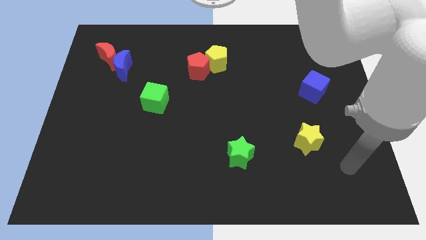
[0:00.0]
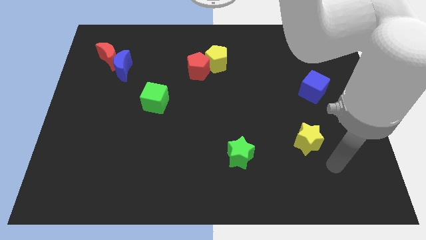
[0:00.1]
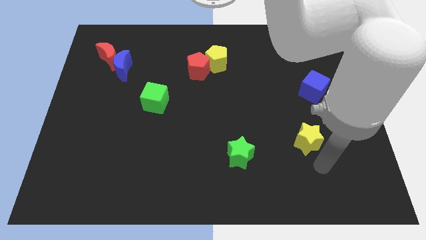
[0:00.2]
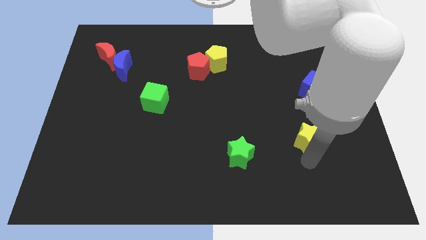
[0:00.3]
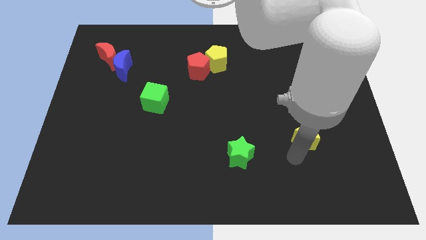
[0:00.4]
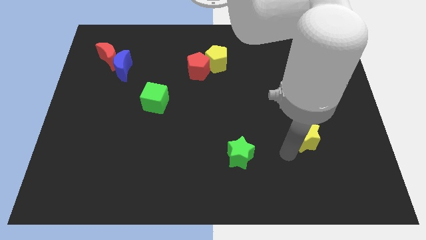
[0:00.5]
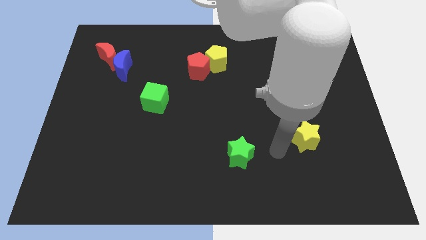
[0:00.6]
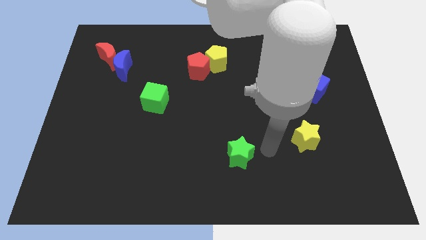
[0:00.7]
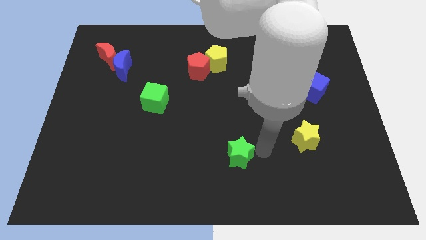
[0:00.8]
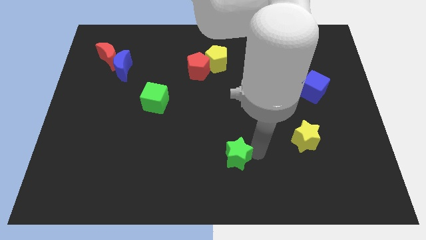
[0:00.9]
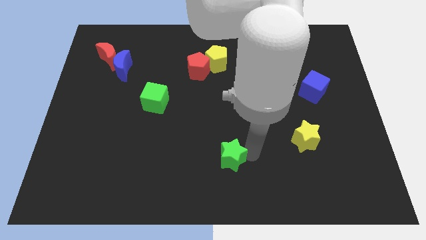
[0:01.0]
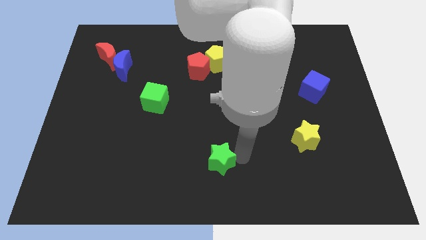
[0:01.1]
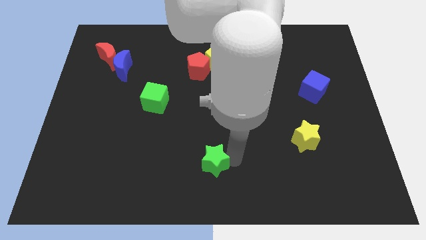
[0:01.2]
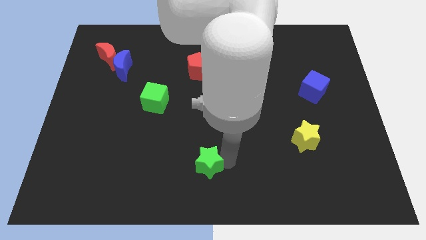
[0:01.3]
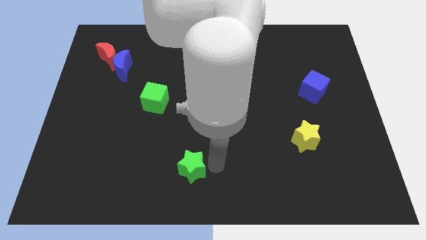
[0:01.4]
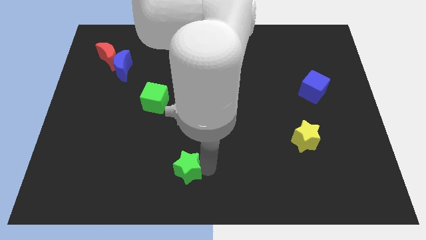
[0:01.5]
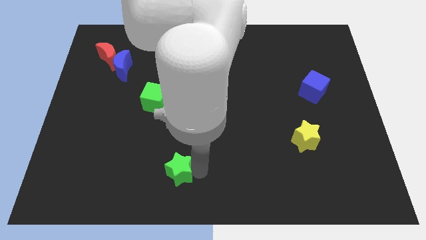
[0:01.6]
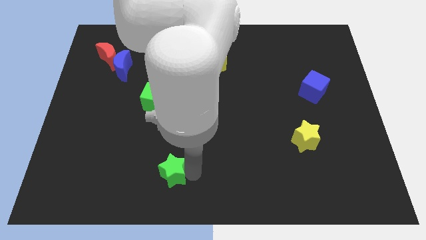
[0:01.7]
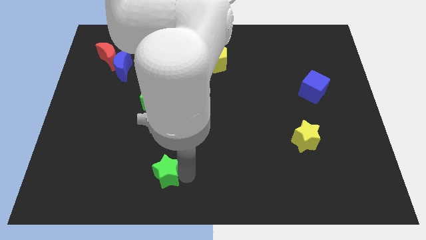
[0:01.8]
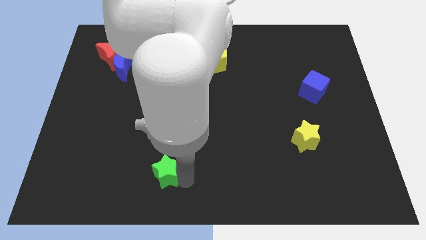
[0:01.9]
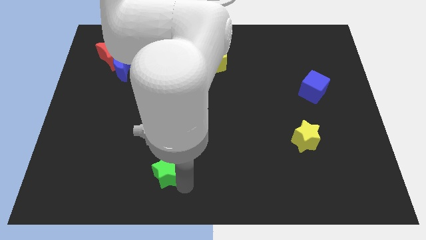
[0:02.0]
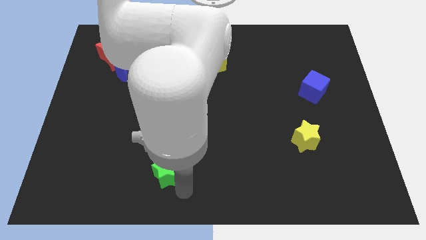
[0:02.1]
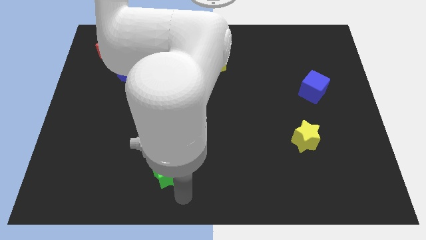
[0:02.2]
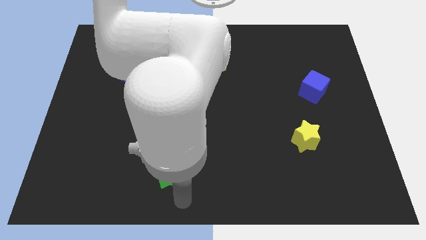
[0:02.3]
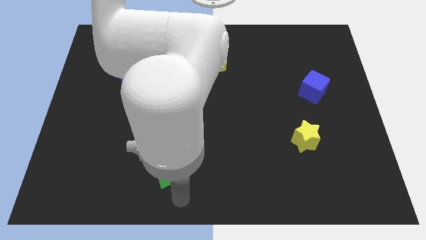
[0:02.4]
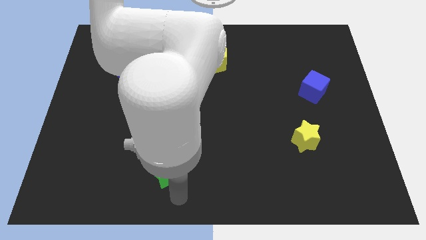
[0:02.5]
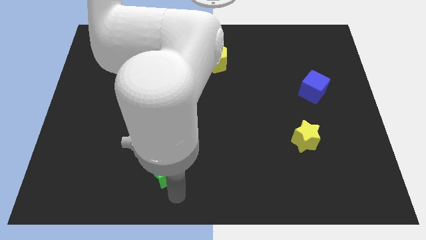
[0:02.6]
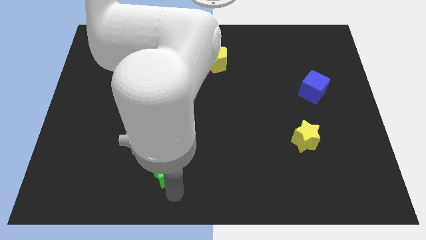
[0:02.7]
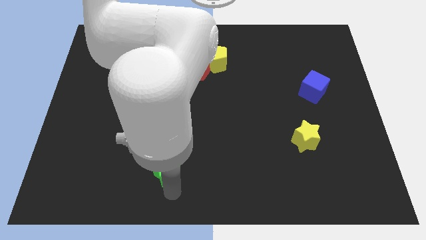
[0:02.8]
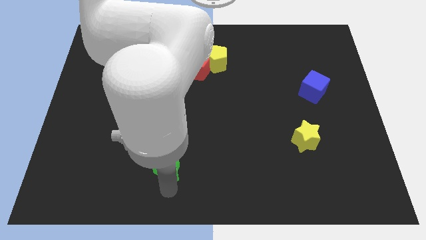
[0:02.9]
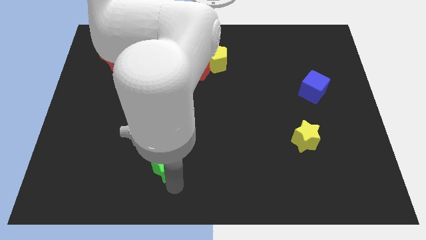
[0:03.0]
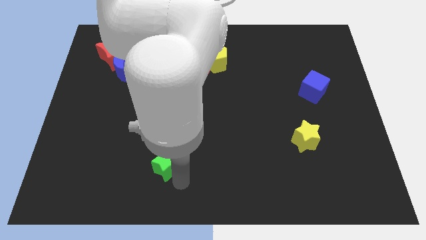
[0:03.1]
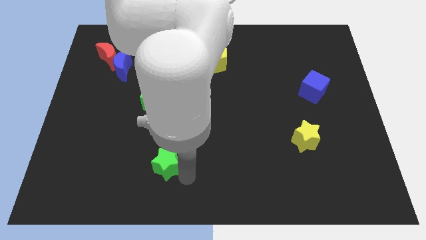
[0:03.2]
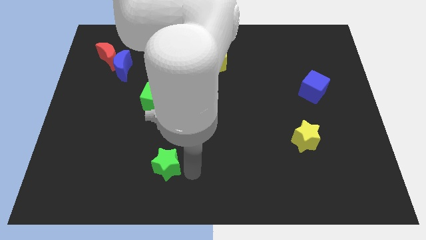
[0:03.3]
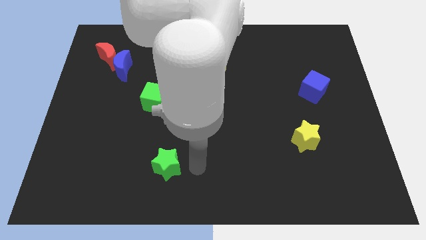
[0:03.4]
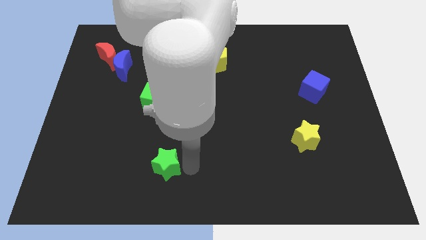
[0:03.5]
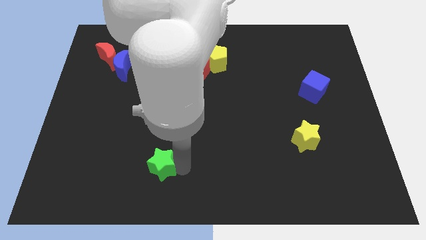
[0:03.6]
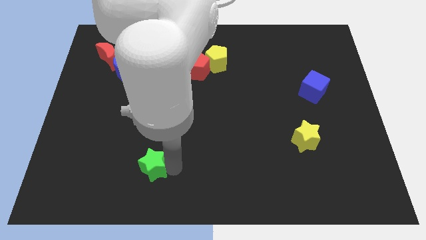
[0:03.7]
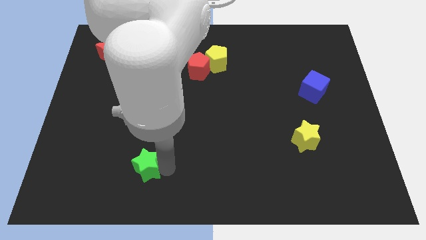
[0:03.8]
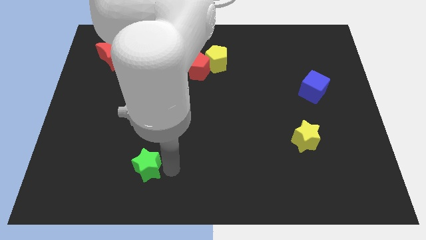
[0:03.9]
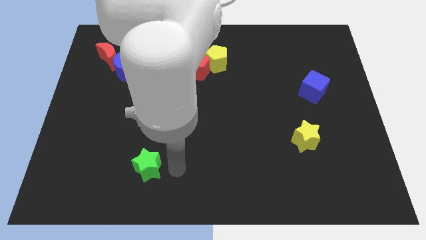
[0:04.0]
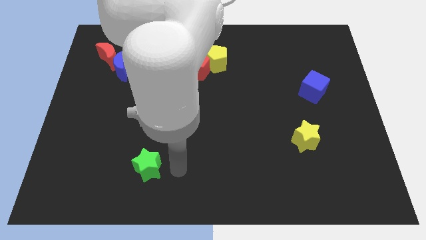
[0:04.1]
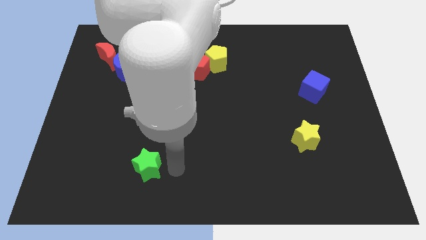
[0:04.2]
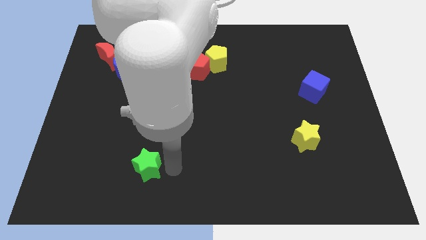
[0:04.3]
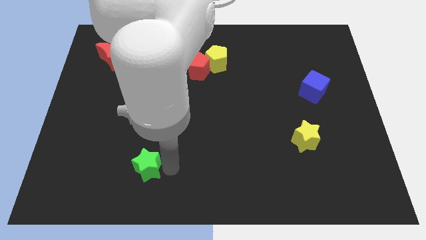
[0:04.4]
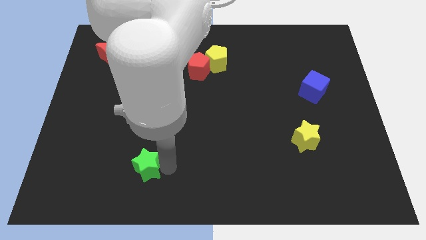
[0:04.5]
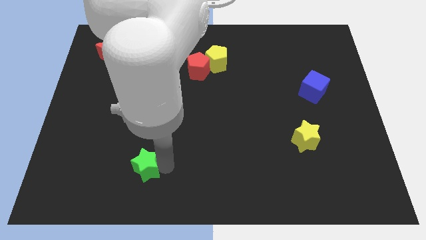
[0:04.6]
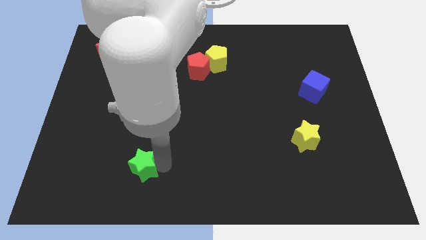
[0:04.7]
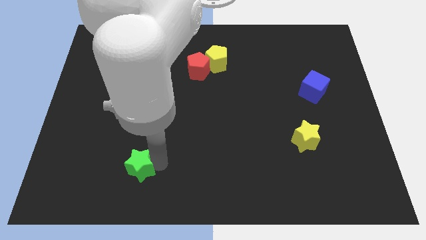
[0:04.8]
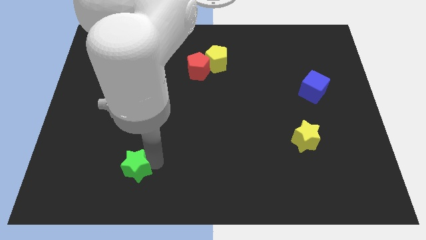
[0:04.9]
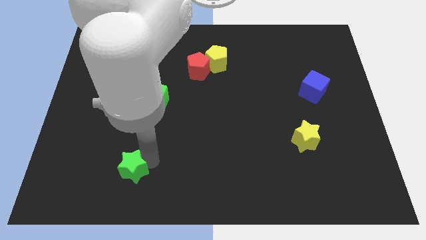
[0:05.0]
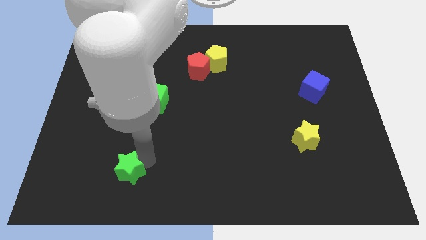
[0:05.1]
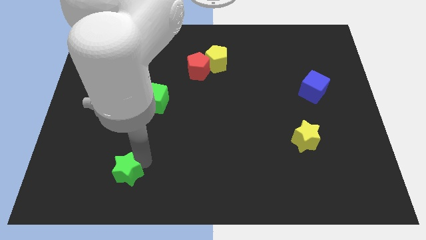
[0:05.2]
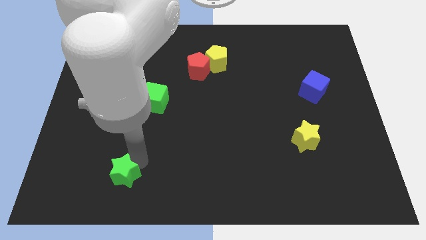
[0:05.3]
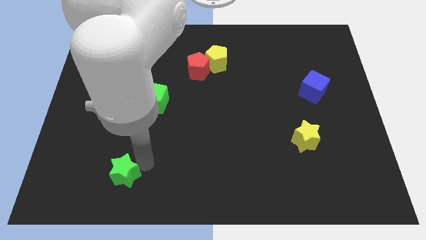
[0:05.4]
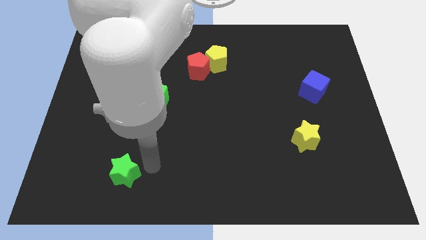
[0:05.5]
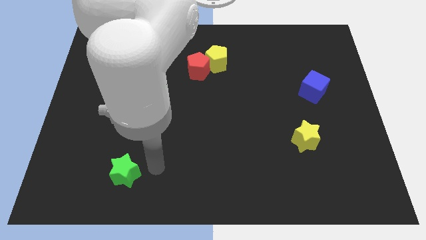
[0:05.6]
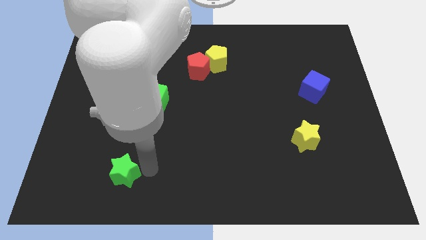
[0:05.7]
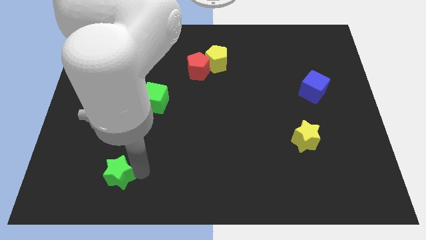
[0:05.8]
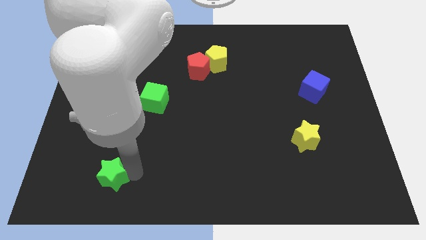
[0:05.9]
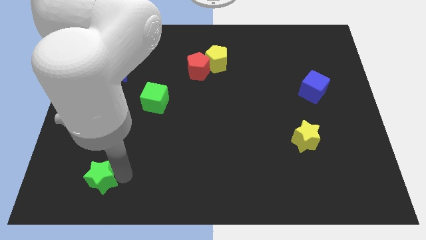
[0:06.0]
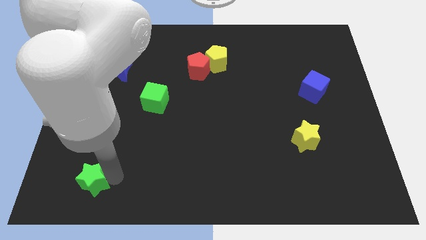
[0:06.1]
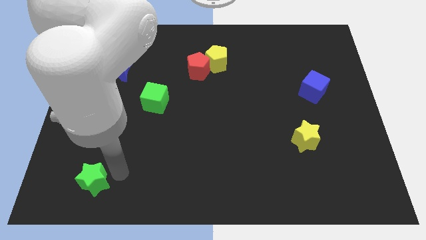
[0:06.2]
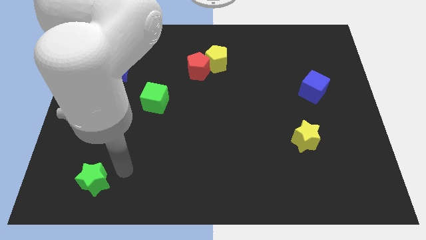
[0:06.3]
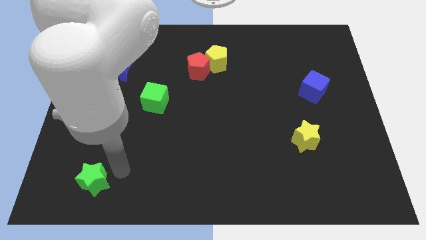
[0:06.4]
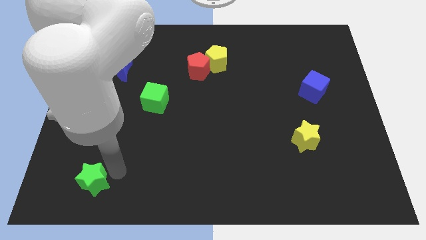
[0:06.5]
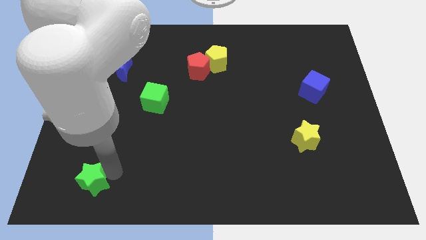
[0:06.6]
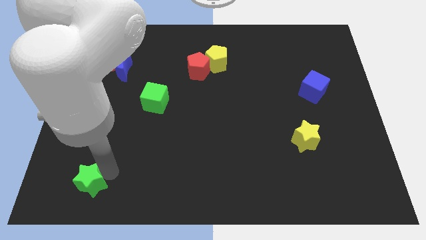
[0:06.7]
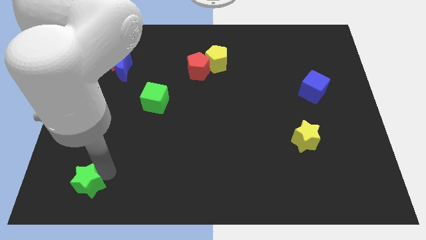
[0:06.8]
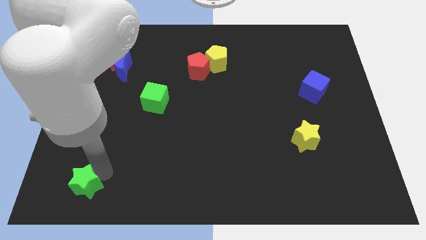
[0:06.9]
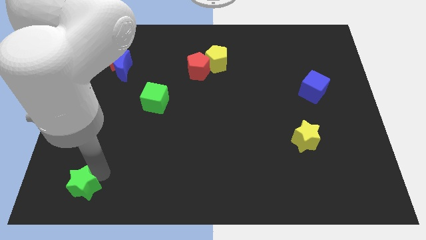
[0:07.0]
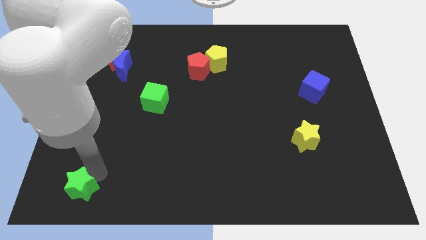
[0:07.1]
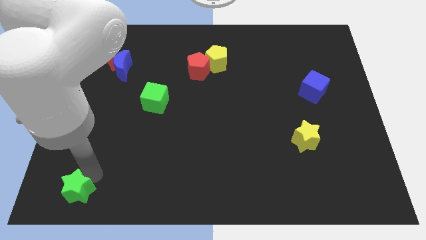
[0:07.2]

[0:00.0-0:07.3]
slide the green star to the bottom left
